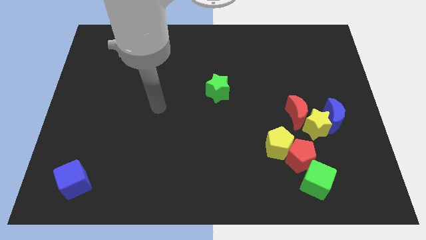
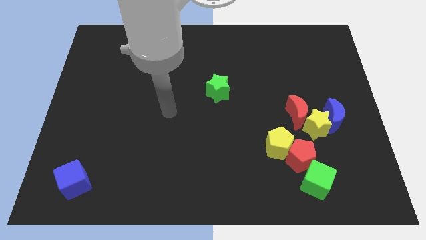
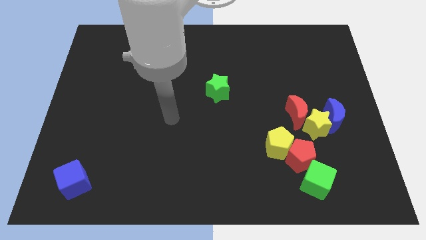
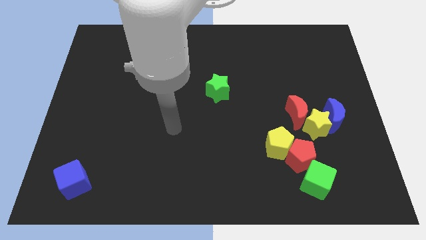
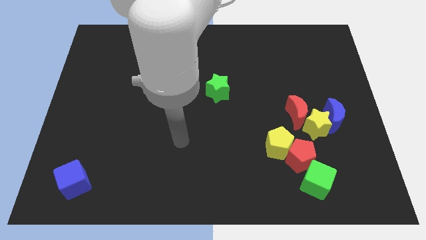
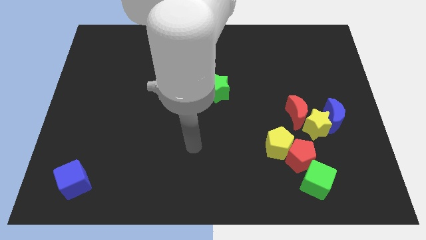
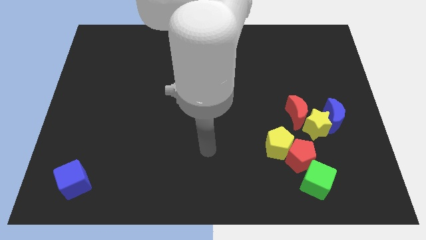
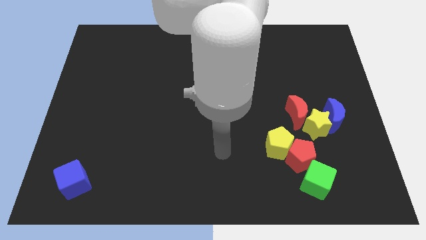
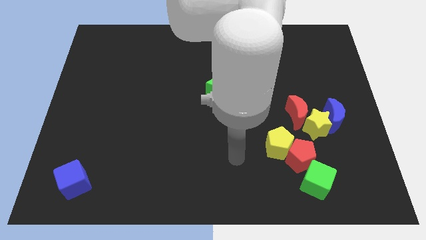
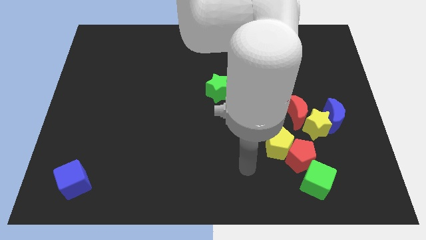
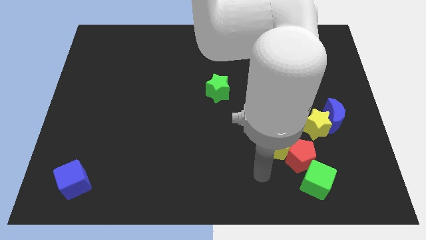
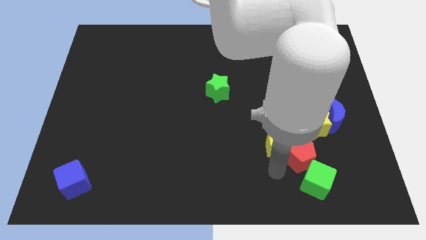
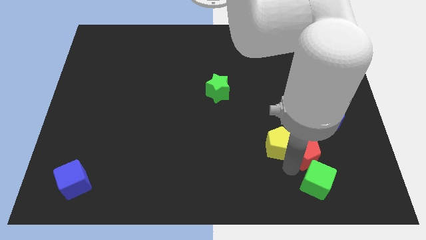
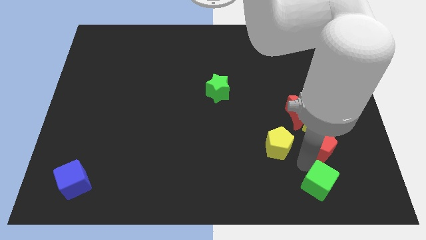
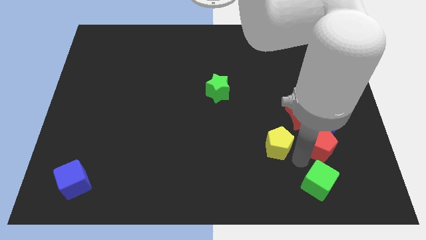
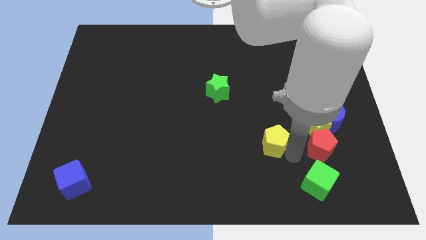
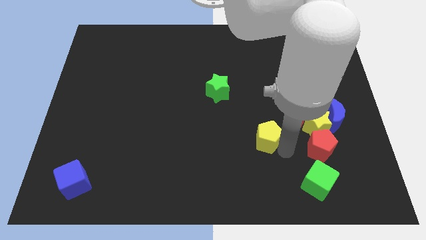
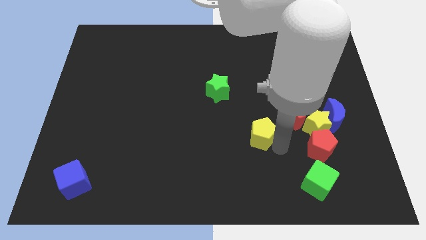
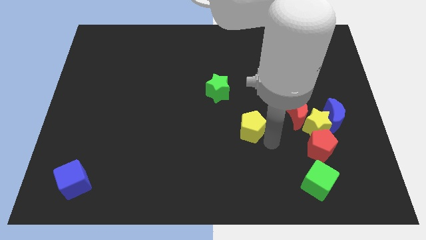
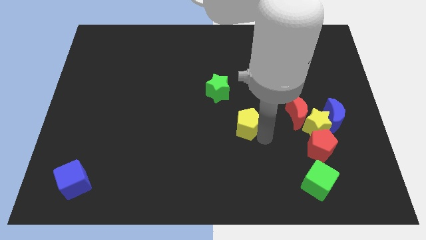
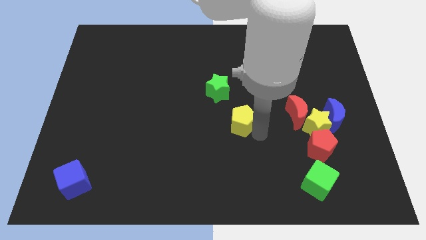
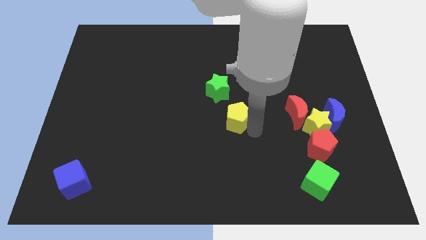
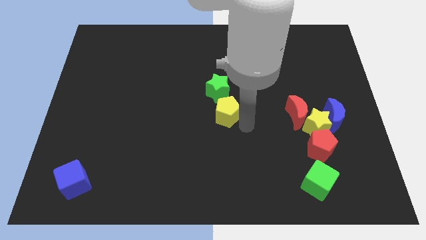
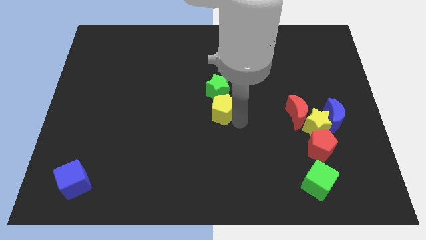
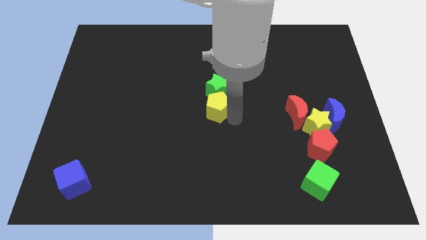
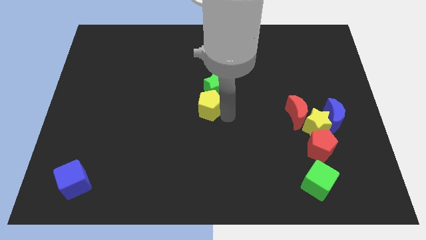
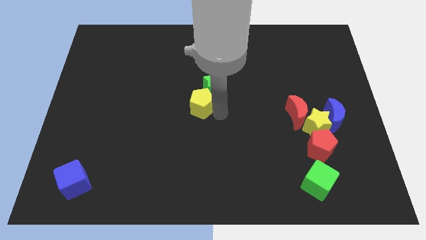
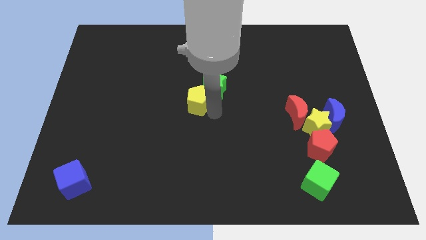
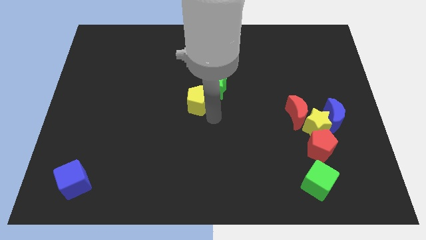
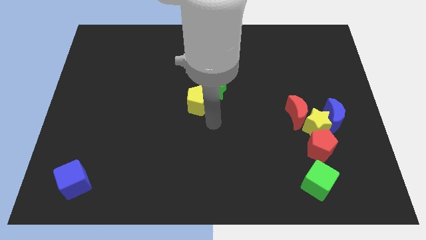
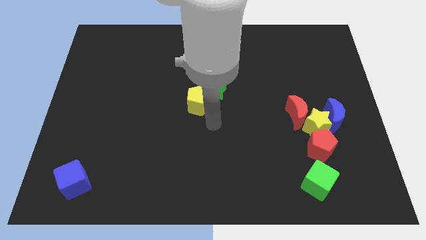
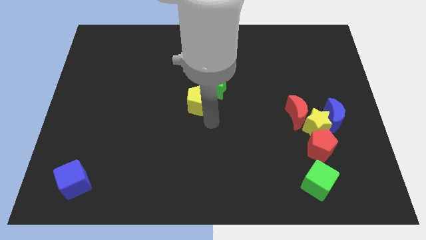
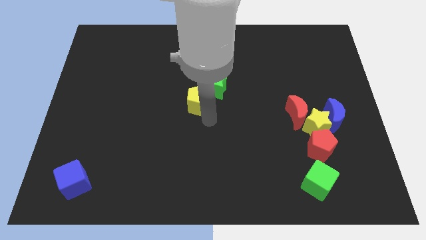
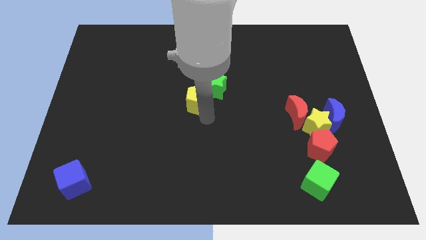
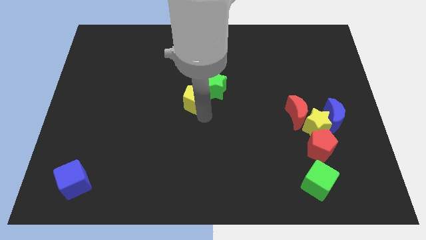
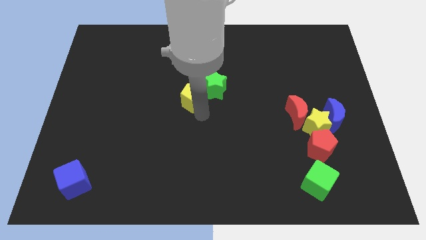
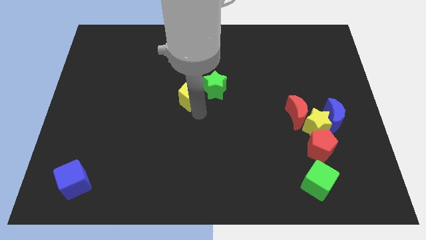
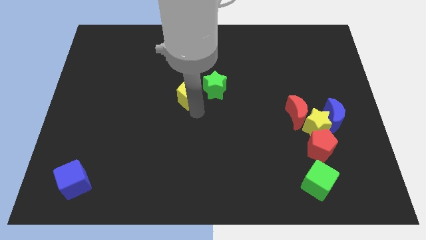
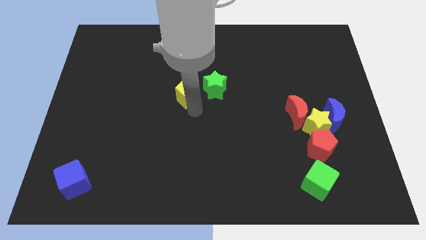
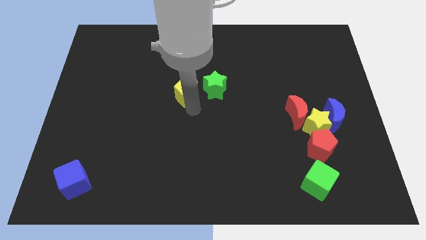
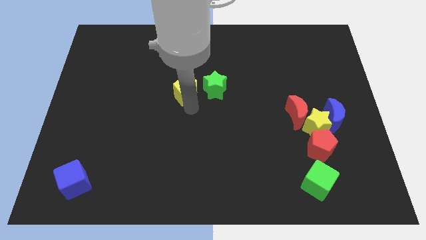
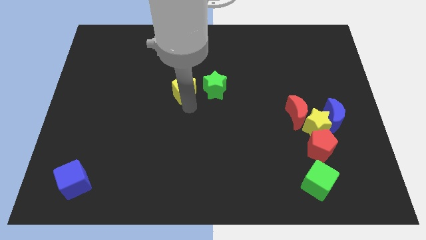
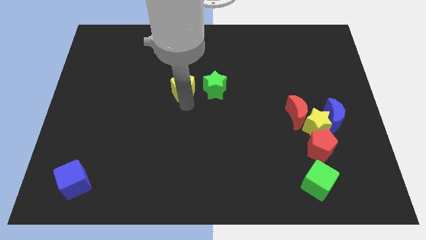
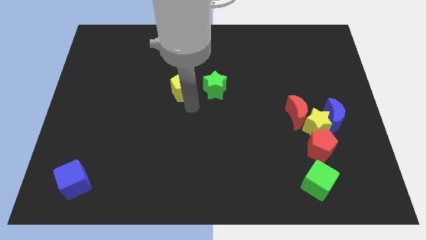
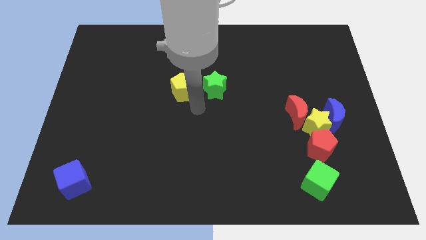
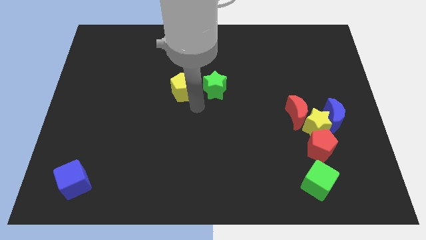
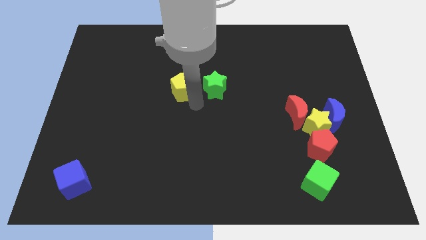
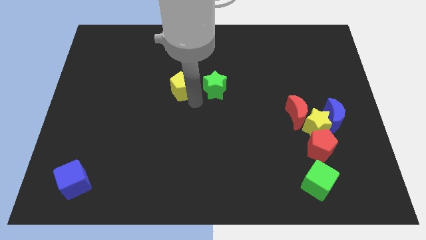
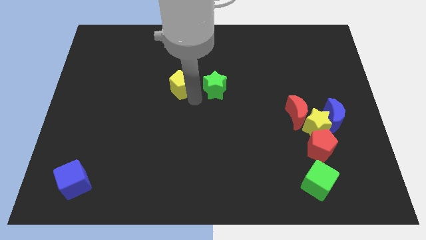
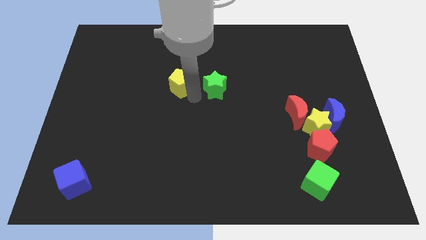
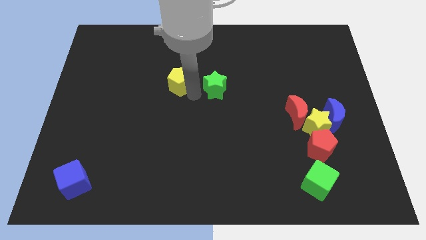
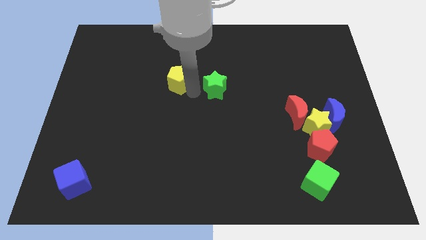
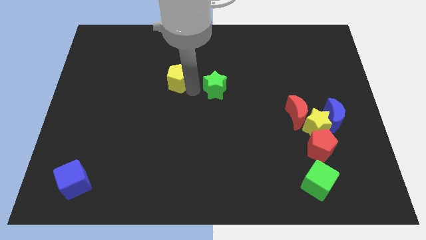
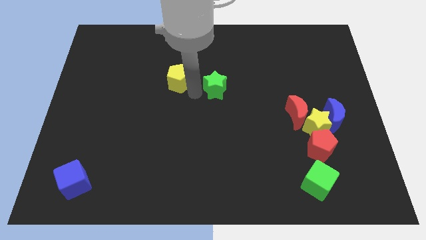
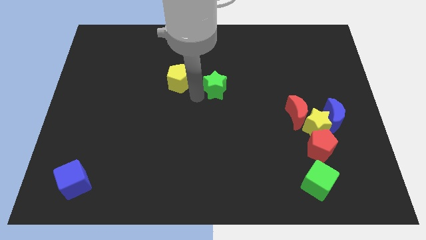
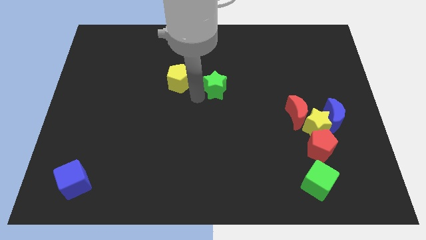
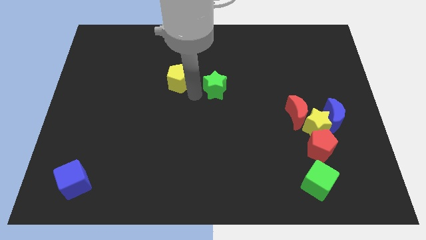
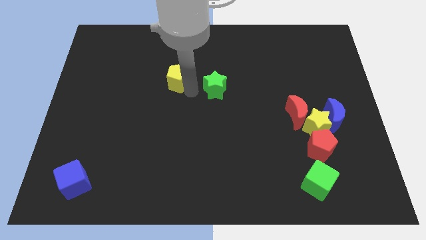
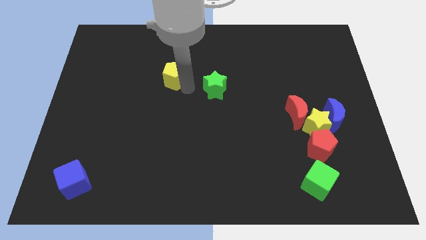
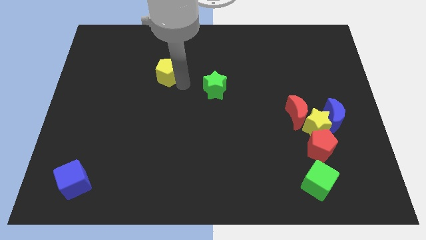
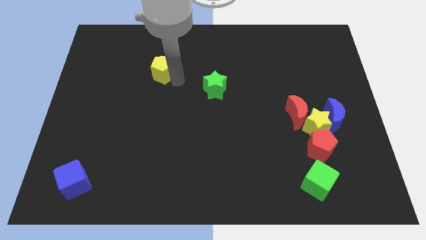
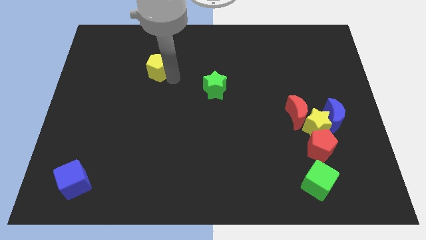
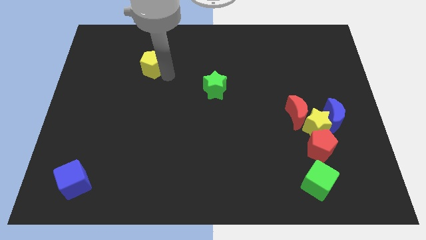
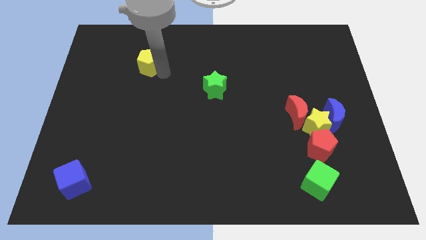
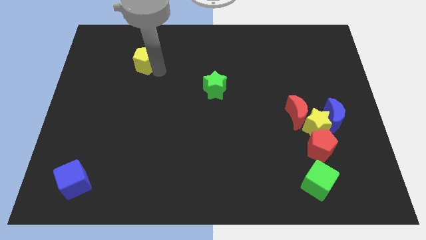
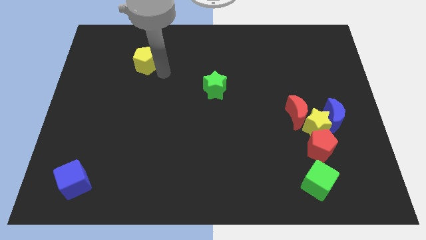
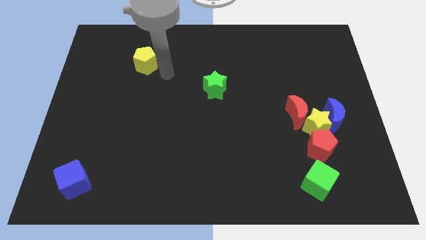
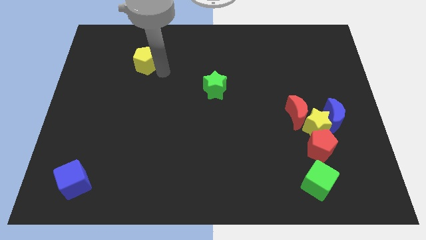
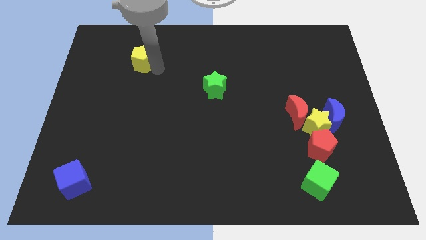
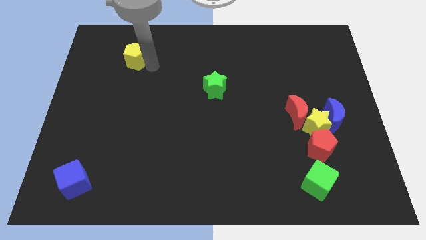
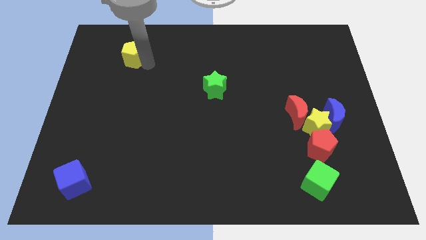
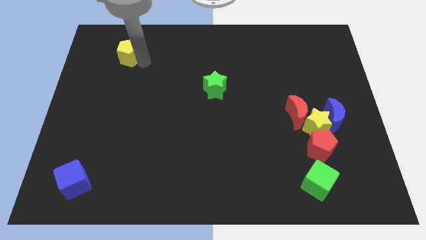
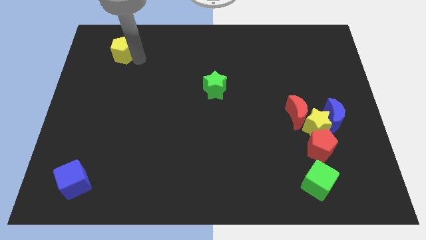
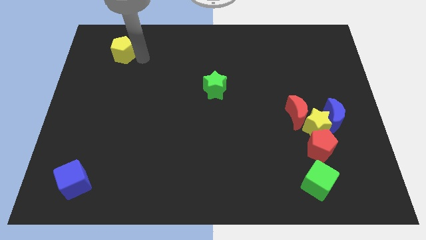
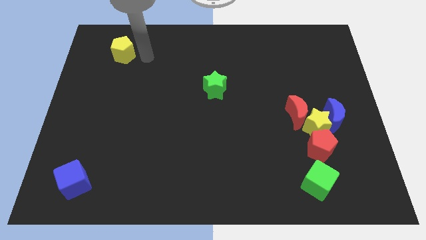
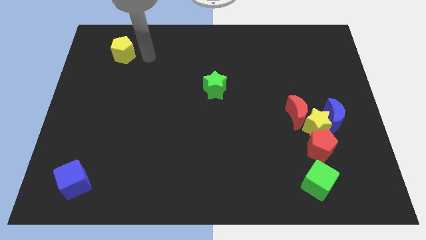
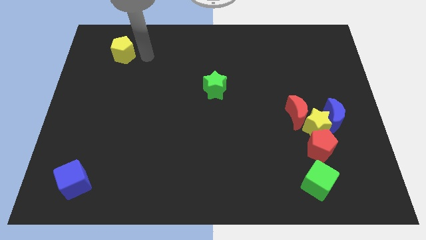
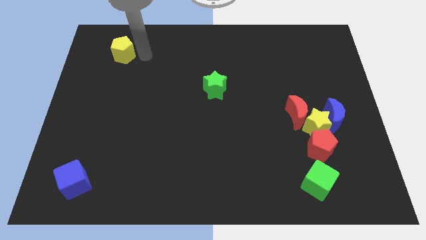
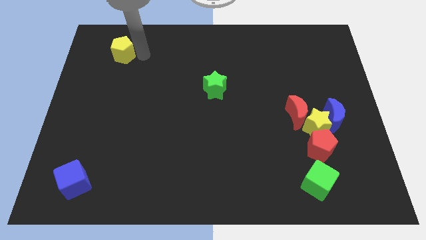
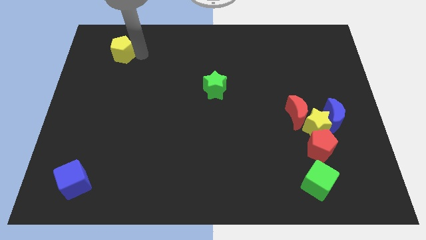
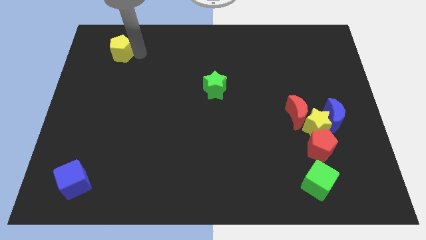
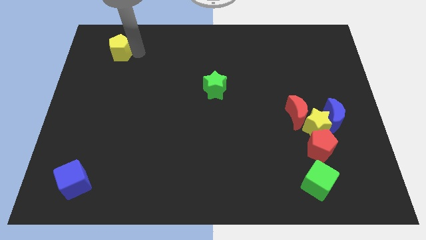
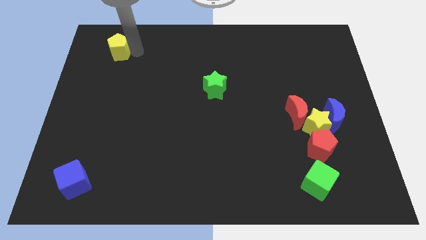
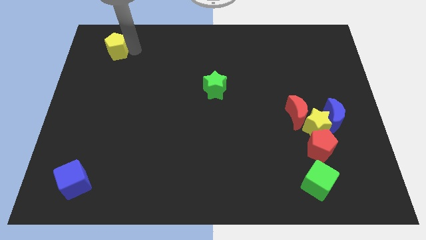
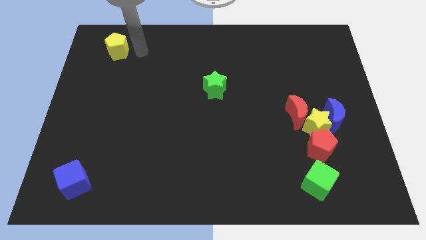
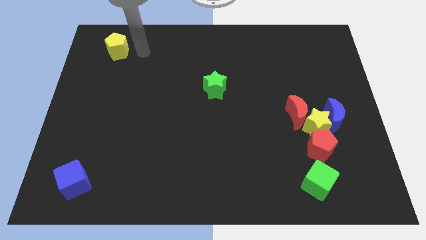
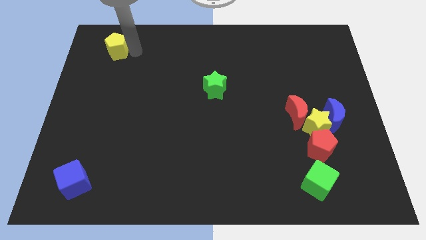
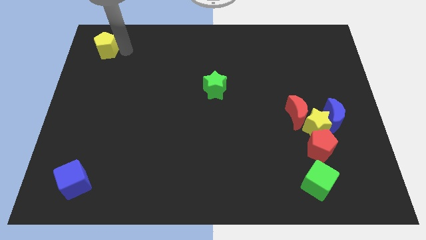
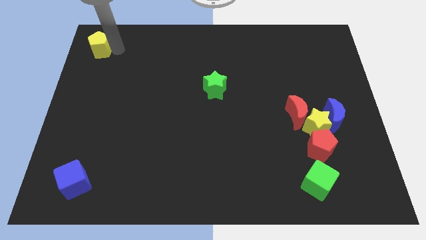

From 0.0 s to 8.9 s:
move the yellow pentagon to the top left of the board
